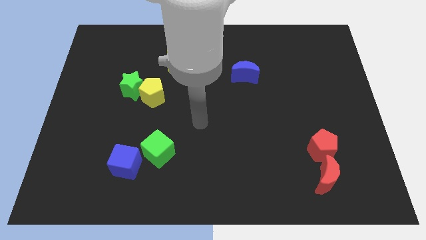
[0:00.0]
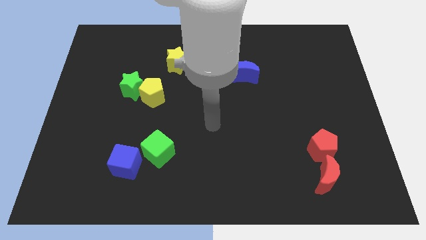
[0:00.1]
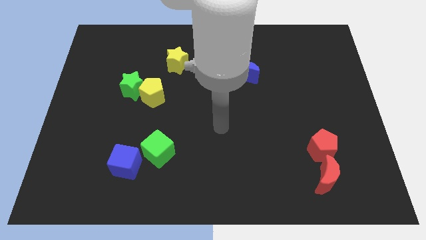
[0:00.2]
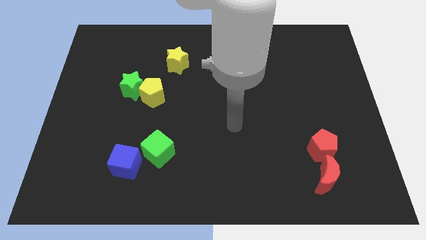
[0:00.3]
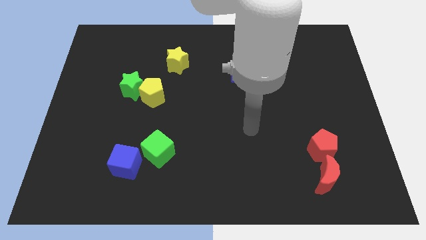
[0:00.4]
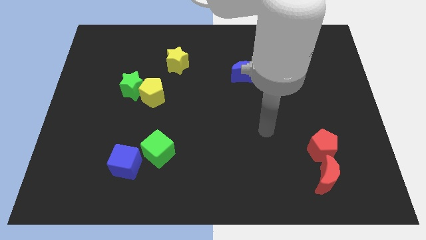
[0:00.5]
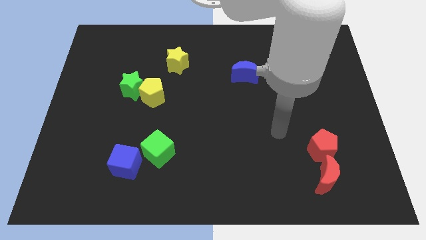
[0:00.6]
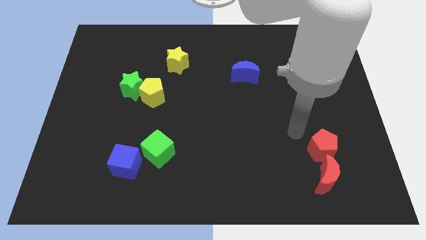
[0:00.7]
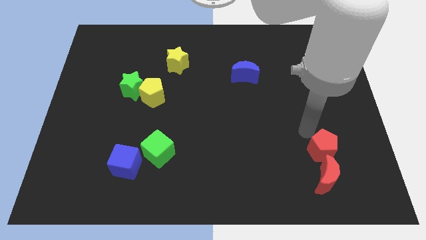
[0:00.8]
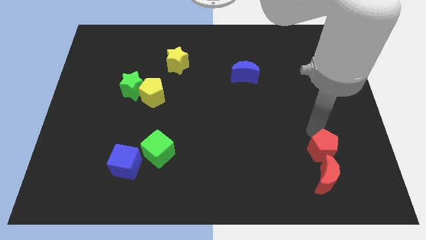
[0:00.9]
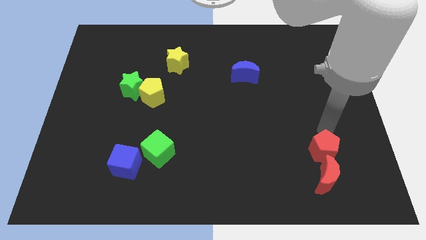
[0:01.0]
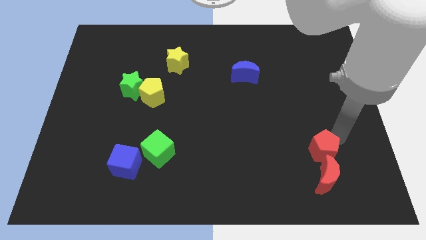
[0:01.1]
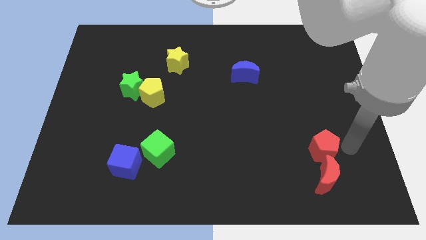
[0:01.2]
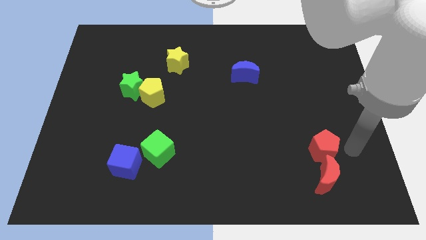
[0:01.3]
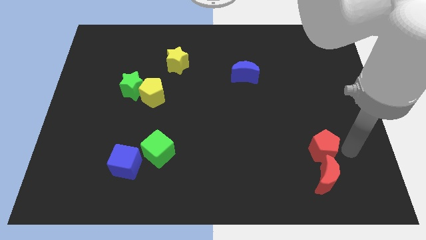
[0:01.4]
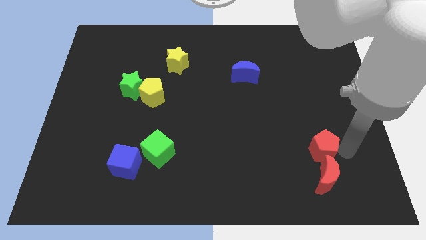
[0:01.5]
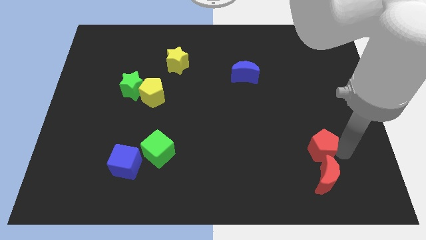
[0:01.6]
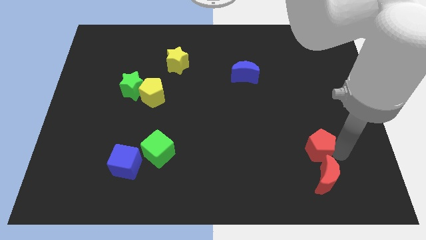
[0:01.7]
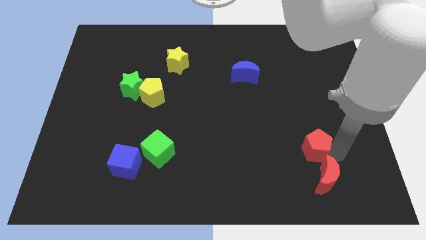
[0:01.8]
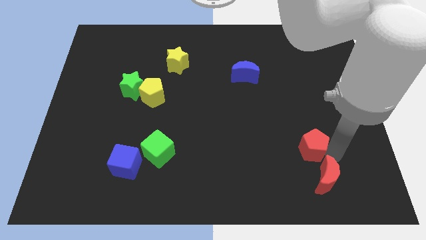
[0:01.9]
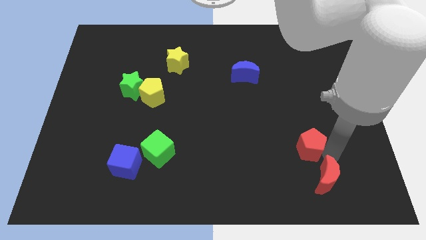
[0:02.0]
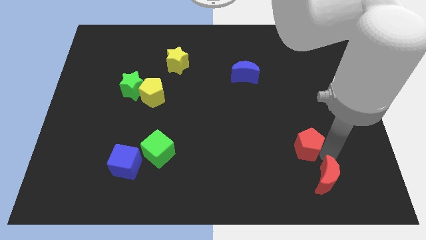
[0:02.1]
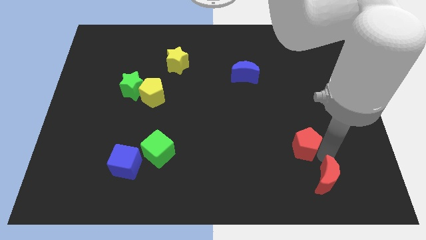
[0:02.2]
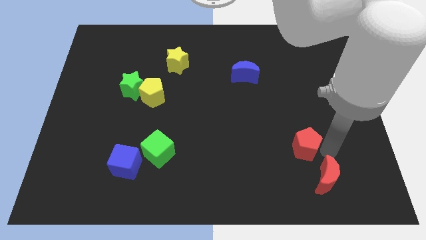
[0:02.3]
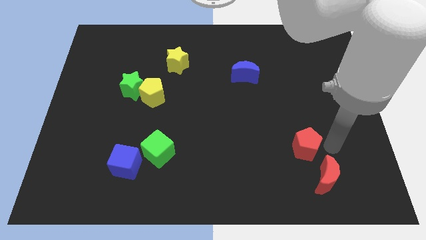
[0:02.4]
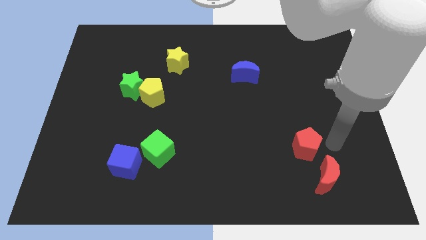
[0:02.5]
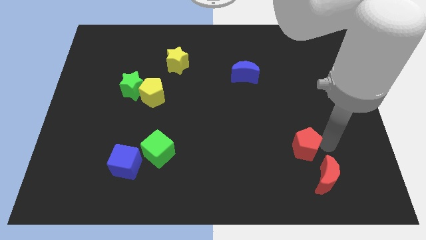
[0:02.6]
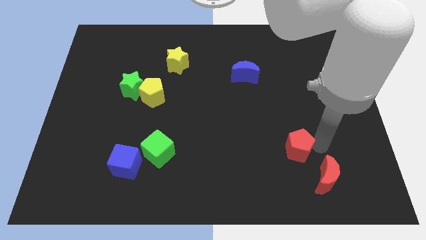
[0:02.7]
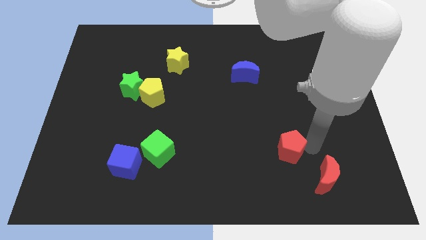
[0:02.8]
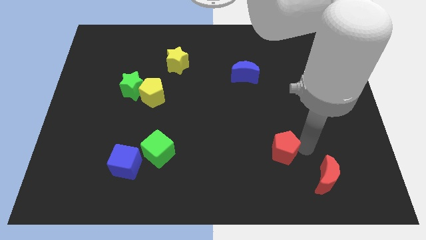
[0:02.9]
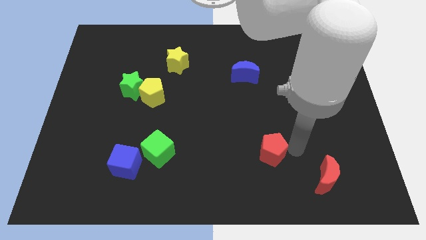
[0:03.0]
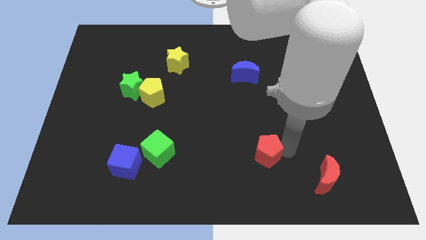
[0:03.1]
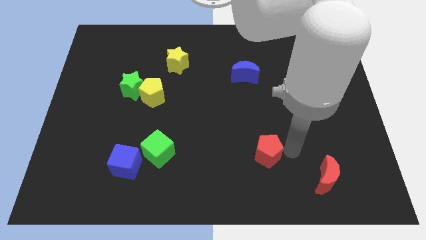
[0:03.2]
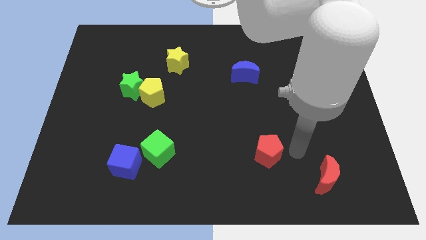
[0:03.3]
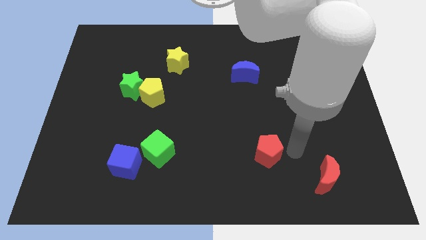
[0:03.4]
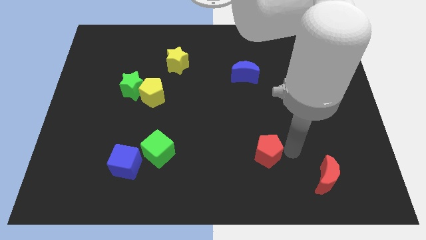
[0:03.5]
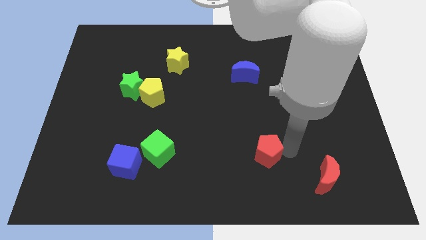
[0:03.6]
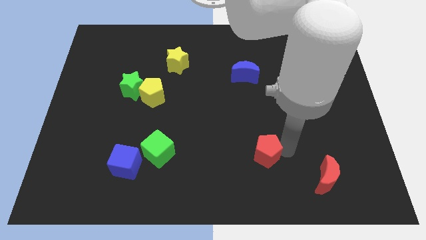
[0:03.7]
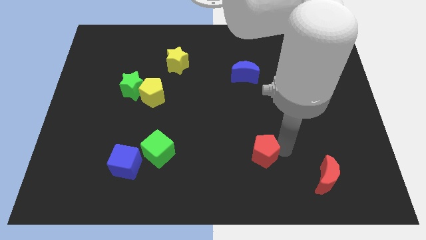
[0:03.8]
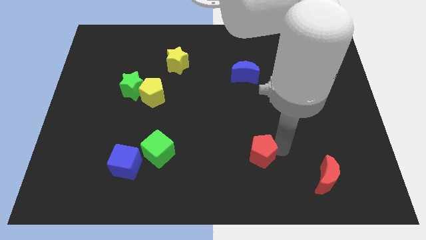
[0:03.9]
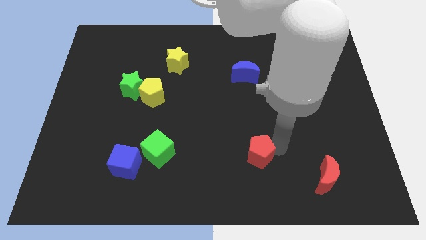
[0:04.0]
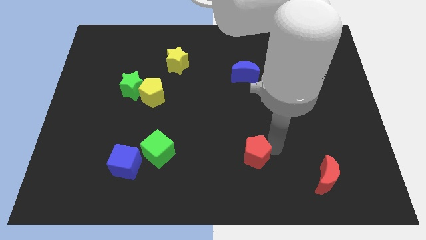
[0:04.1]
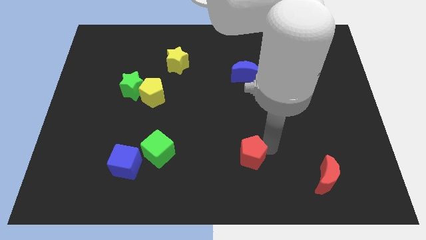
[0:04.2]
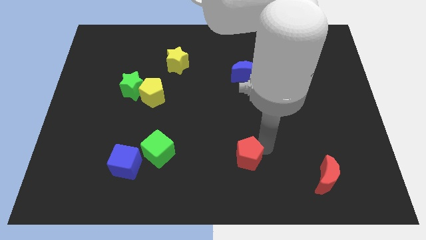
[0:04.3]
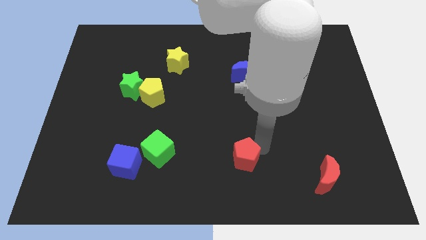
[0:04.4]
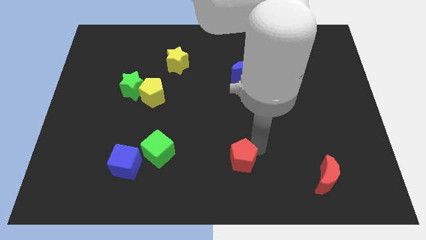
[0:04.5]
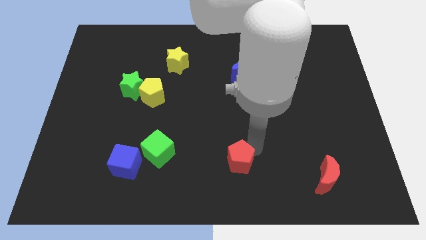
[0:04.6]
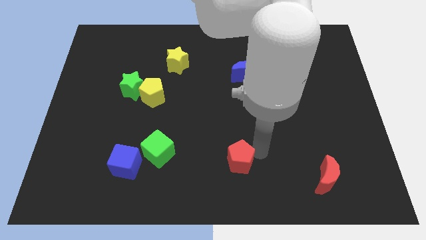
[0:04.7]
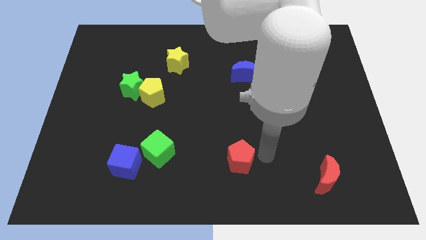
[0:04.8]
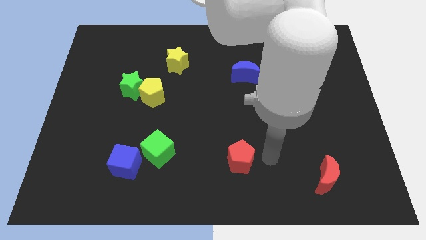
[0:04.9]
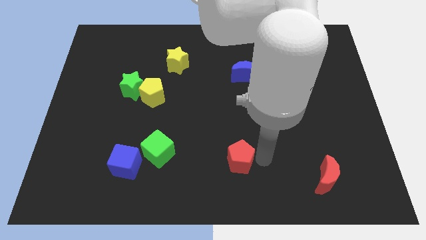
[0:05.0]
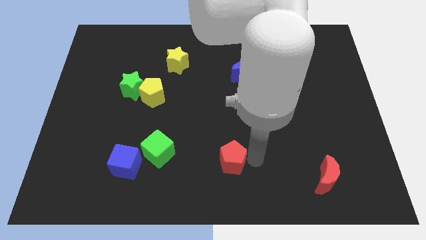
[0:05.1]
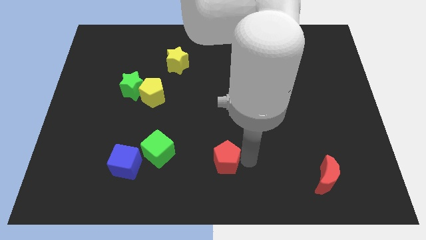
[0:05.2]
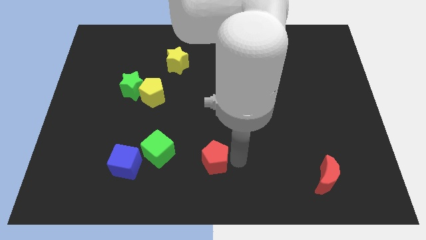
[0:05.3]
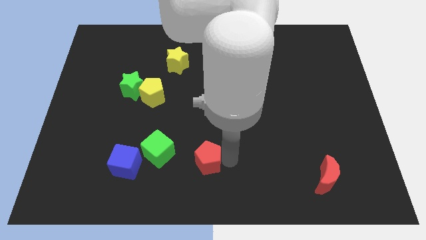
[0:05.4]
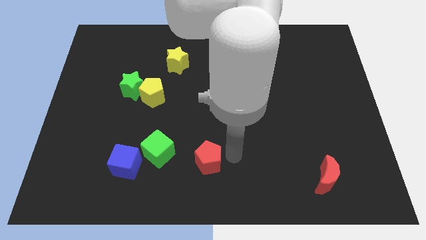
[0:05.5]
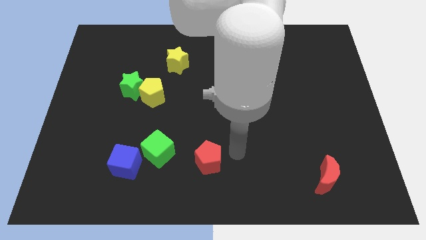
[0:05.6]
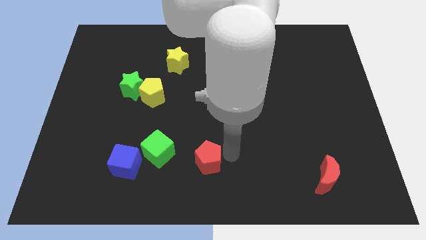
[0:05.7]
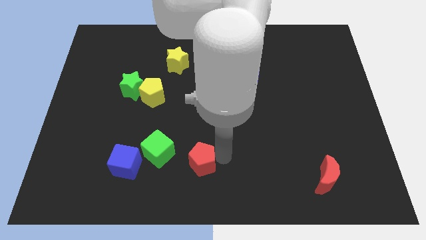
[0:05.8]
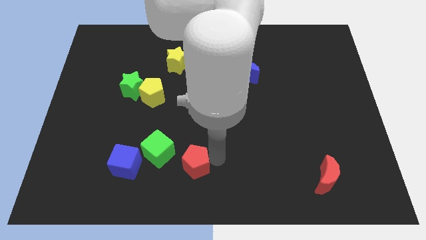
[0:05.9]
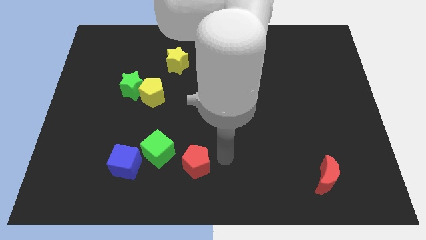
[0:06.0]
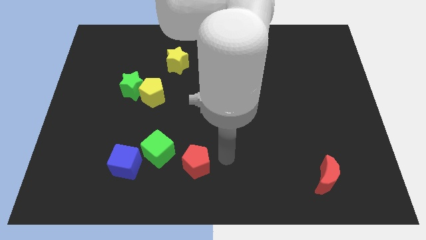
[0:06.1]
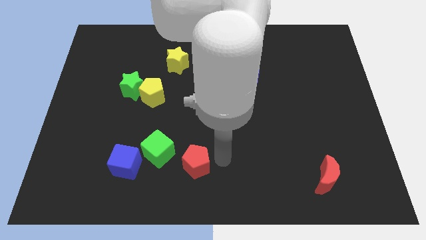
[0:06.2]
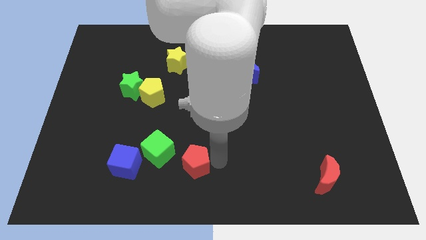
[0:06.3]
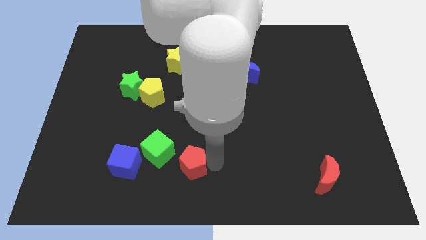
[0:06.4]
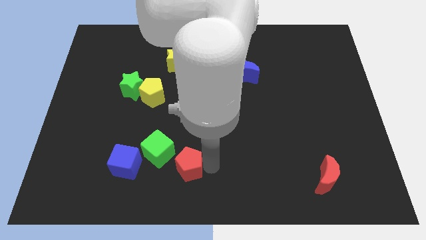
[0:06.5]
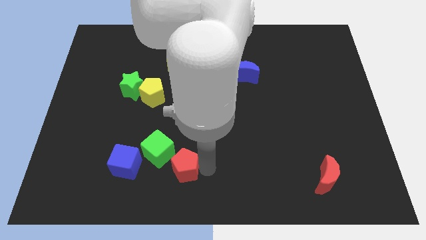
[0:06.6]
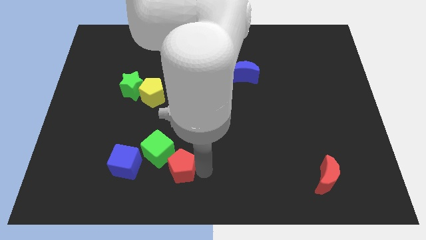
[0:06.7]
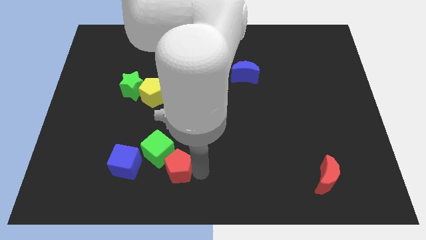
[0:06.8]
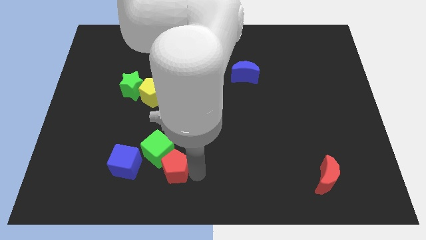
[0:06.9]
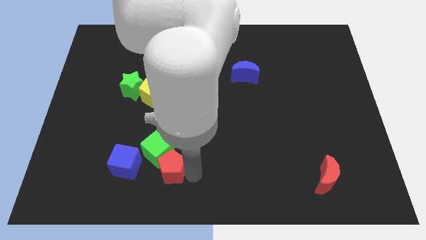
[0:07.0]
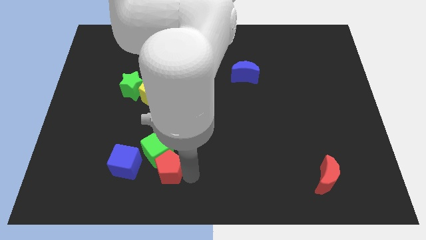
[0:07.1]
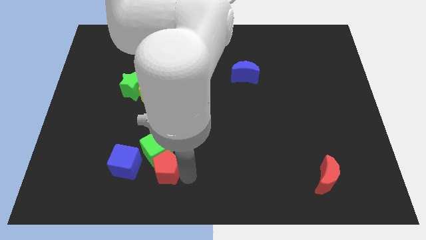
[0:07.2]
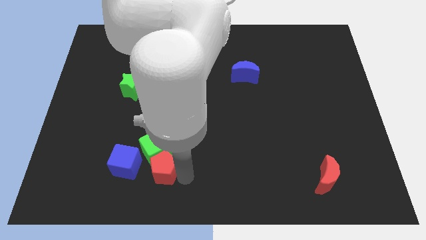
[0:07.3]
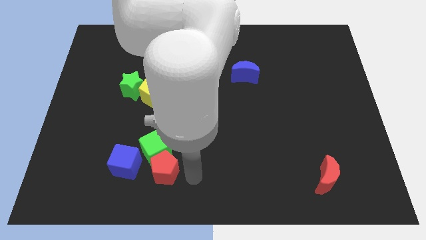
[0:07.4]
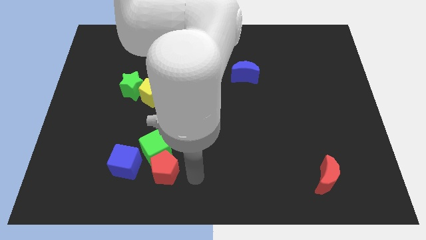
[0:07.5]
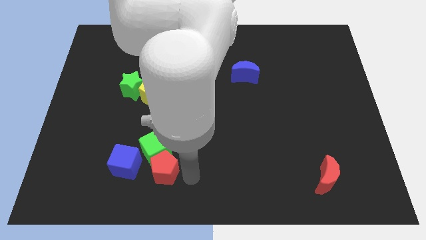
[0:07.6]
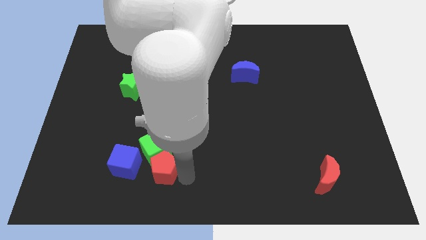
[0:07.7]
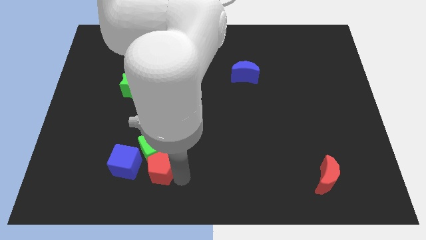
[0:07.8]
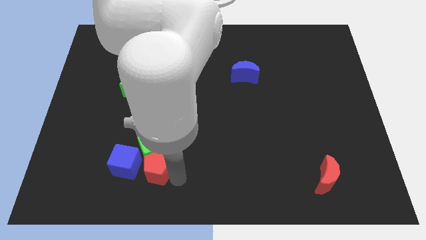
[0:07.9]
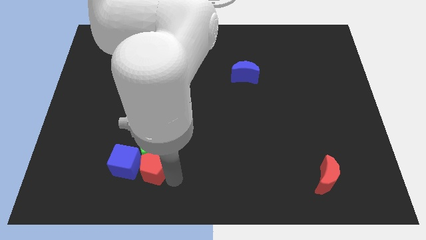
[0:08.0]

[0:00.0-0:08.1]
move the red pentagon next to the blue cube
